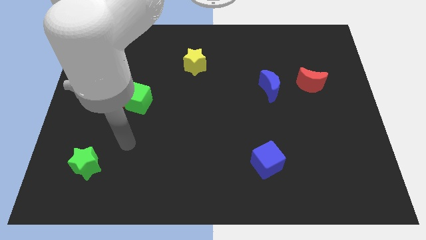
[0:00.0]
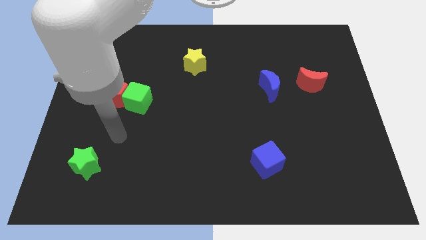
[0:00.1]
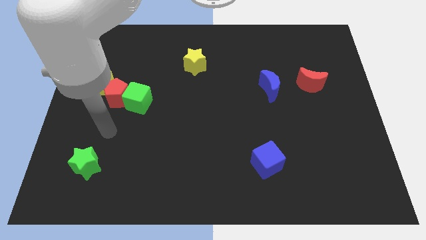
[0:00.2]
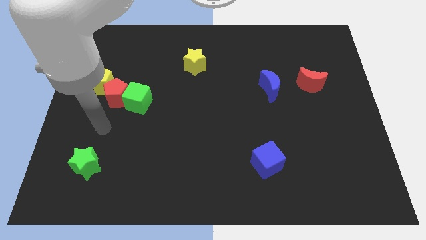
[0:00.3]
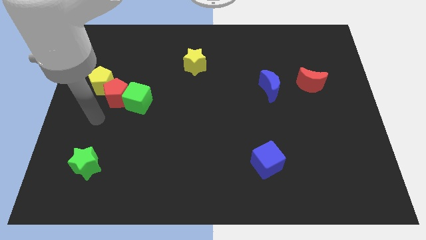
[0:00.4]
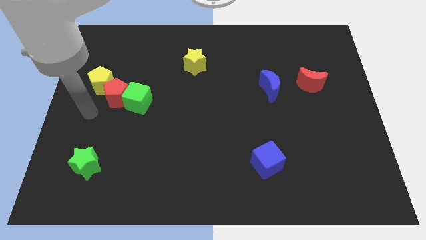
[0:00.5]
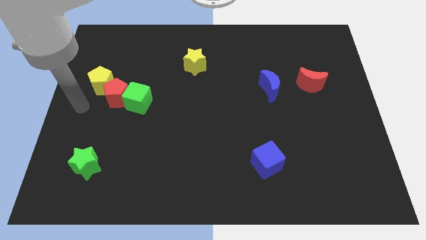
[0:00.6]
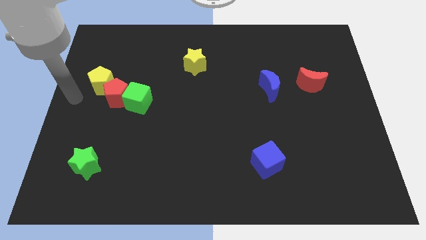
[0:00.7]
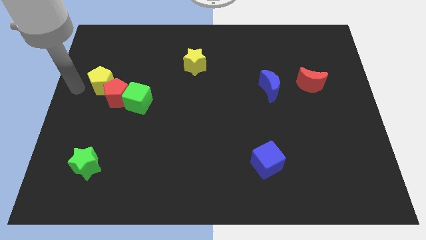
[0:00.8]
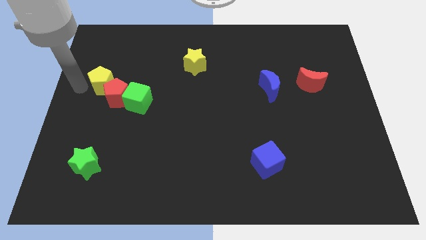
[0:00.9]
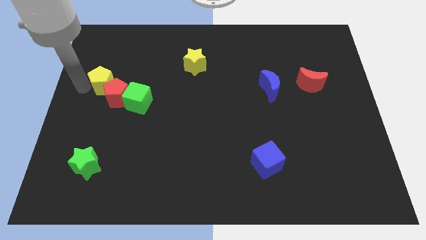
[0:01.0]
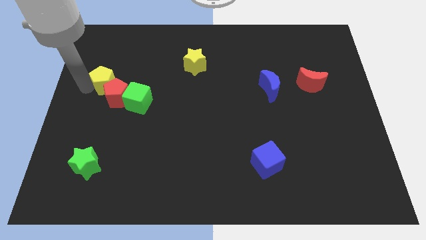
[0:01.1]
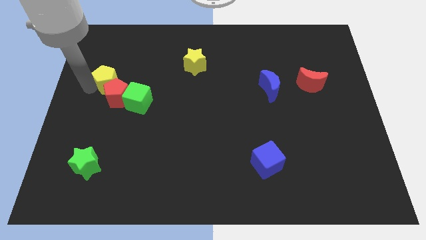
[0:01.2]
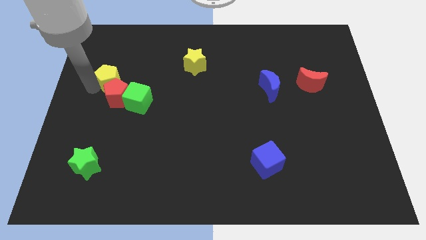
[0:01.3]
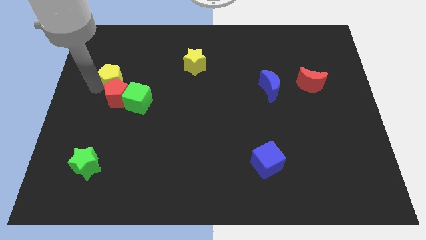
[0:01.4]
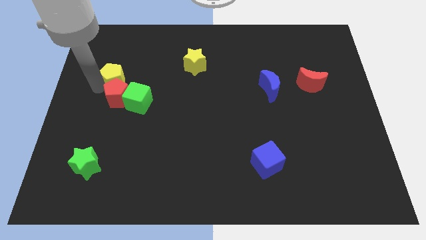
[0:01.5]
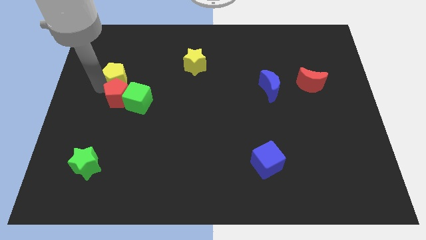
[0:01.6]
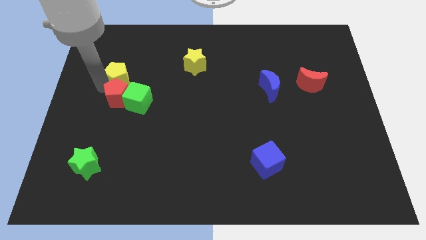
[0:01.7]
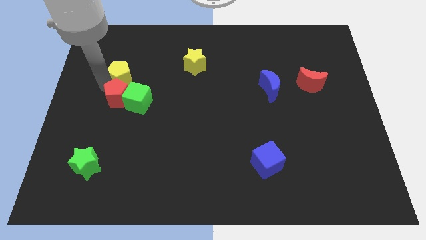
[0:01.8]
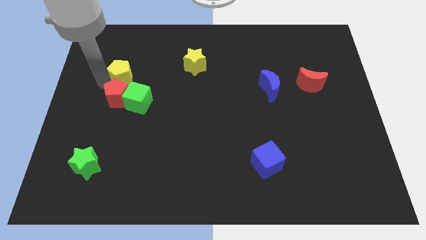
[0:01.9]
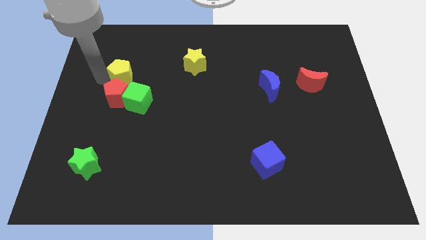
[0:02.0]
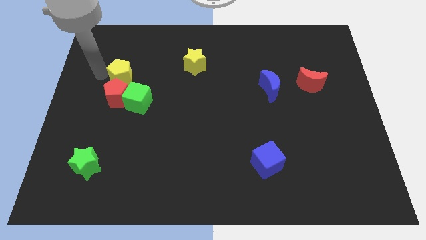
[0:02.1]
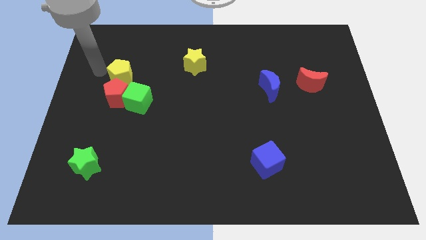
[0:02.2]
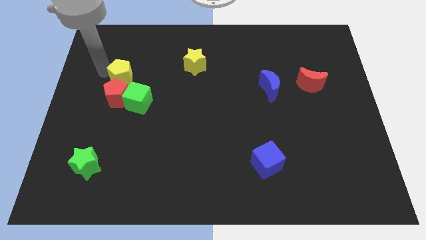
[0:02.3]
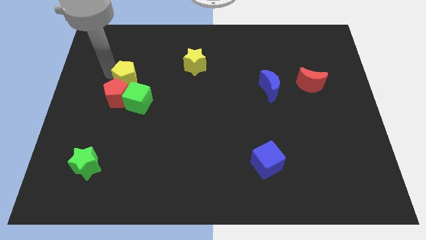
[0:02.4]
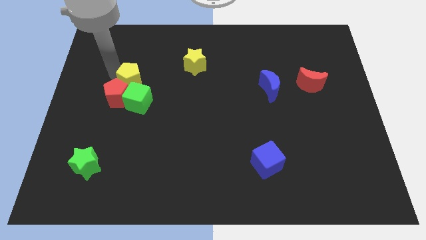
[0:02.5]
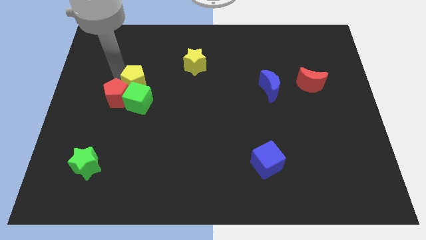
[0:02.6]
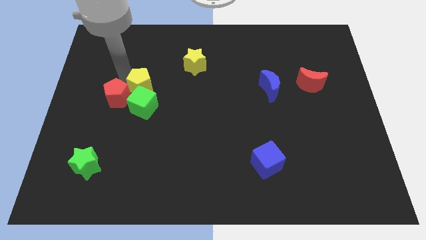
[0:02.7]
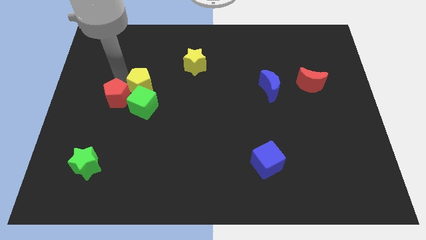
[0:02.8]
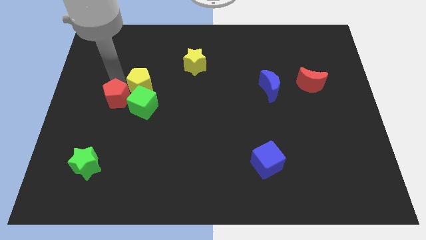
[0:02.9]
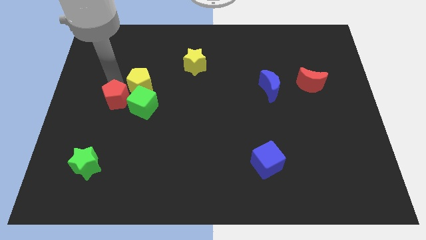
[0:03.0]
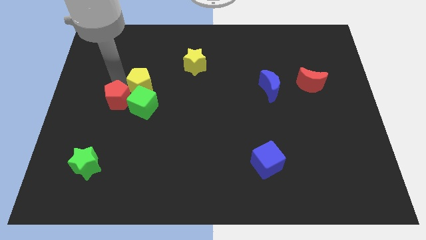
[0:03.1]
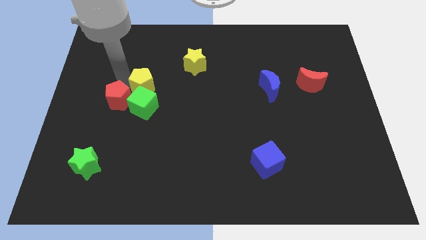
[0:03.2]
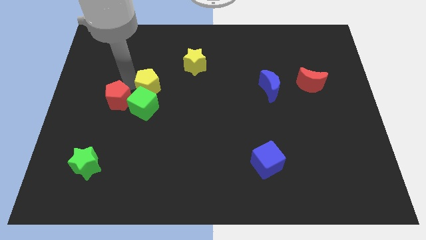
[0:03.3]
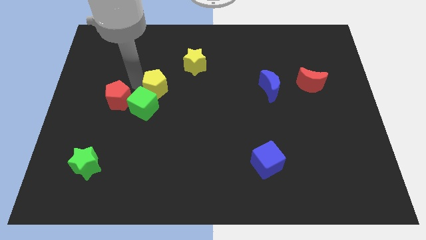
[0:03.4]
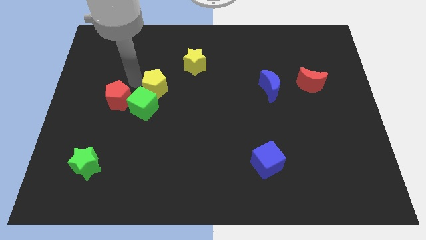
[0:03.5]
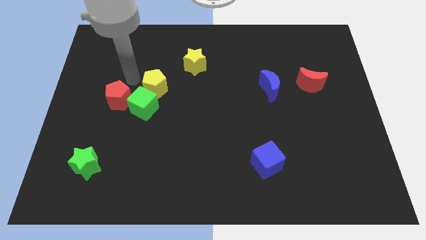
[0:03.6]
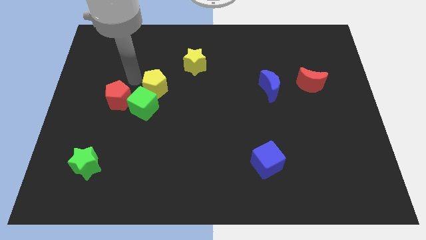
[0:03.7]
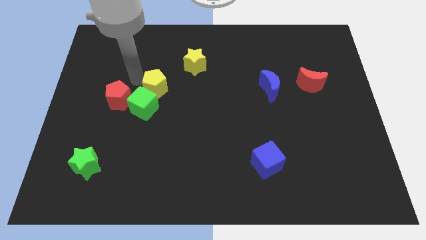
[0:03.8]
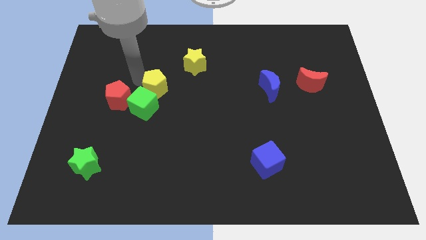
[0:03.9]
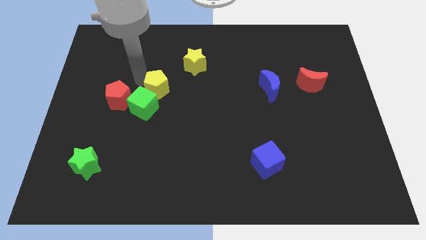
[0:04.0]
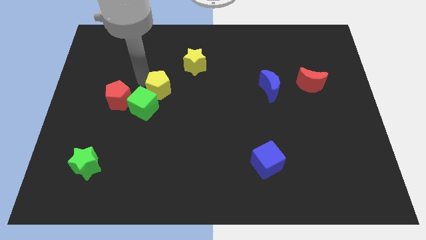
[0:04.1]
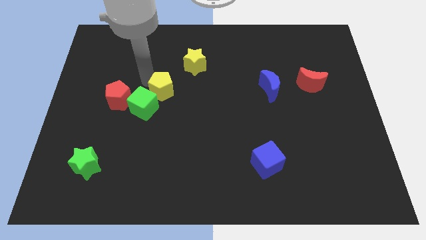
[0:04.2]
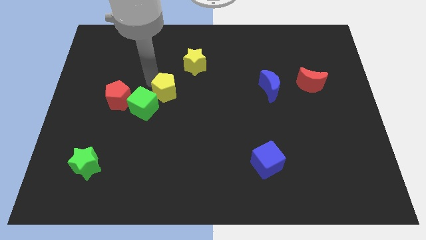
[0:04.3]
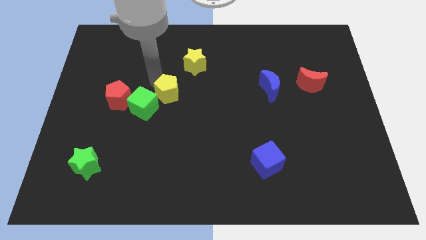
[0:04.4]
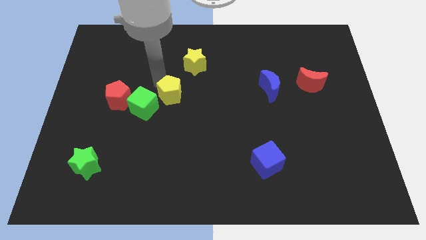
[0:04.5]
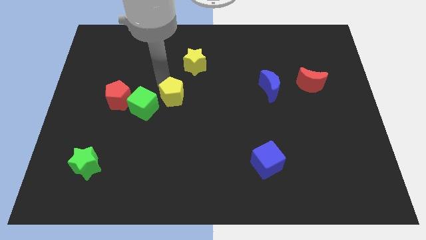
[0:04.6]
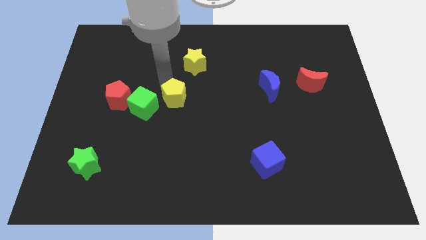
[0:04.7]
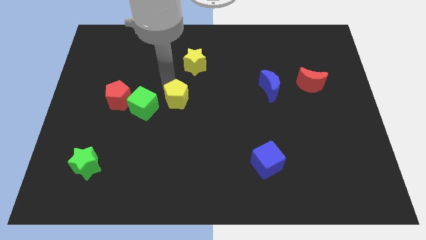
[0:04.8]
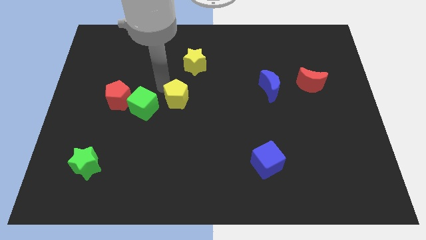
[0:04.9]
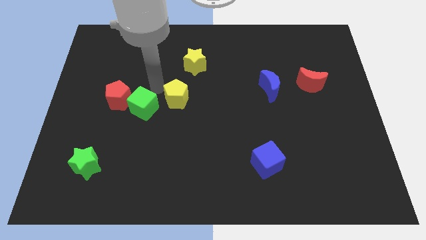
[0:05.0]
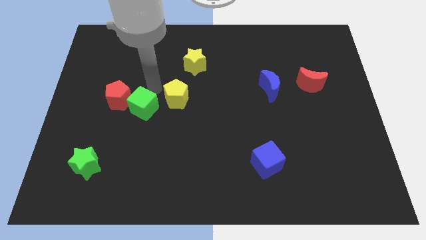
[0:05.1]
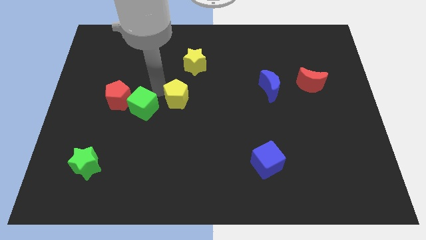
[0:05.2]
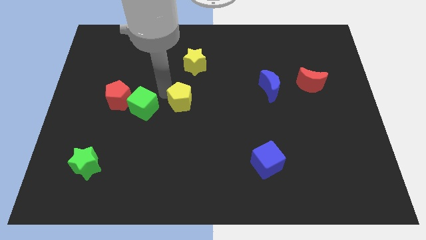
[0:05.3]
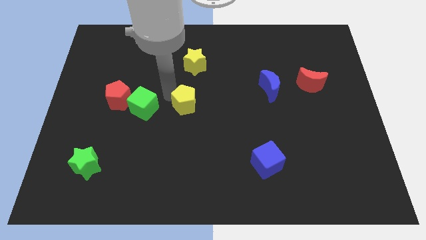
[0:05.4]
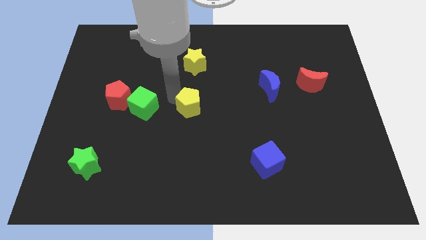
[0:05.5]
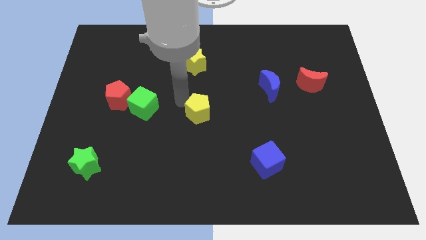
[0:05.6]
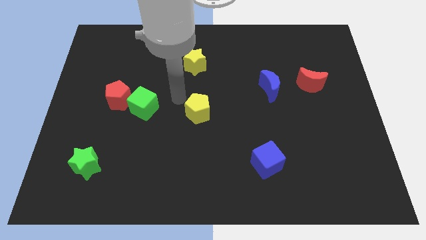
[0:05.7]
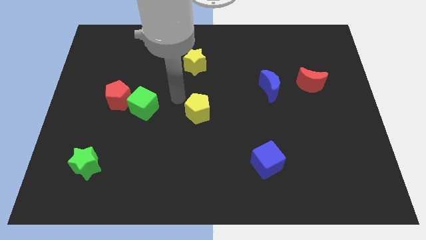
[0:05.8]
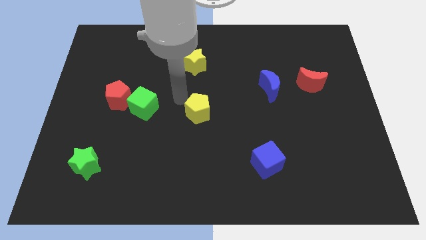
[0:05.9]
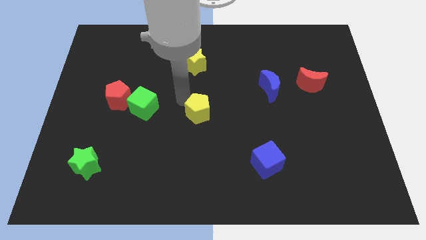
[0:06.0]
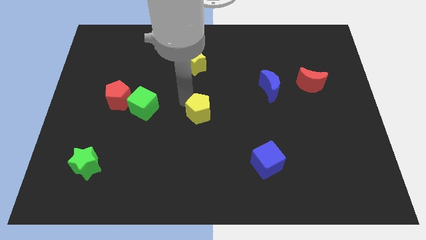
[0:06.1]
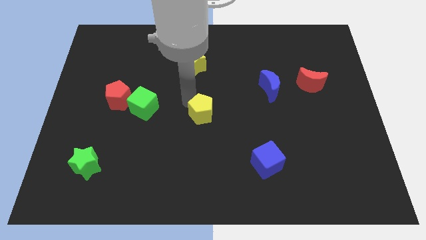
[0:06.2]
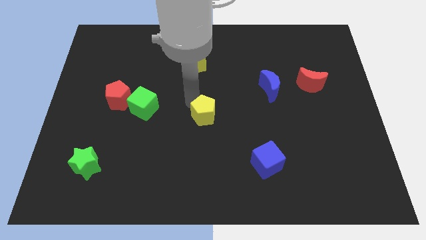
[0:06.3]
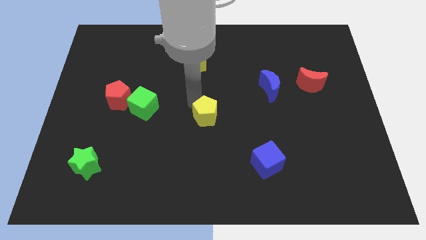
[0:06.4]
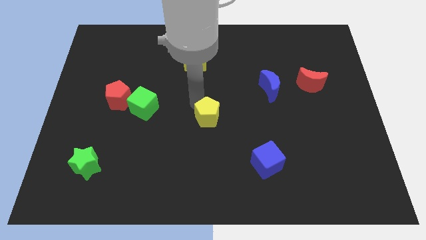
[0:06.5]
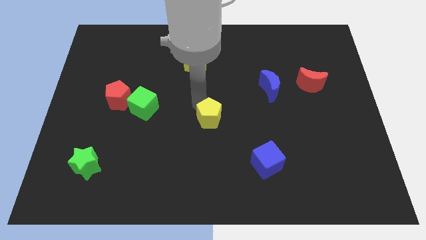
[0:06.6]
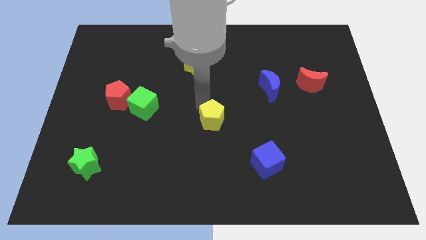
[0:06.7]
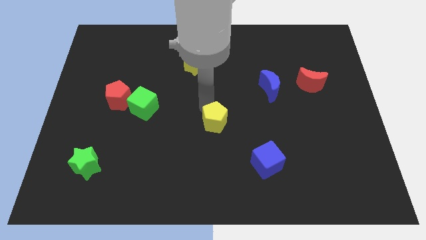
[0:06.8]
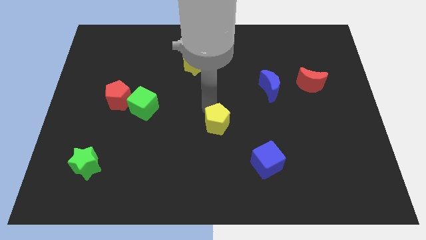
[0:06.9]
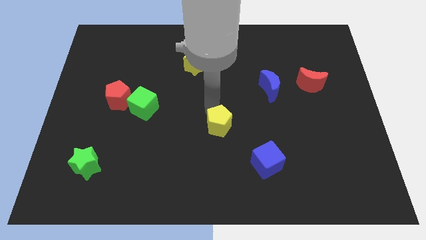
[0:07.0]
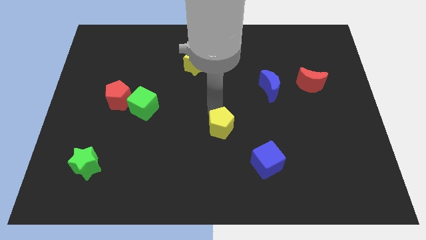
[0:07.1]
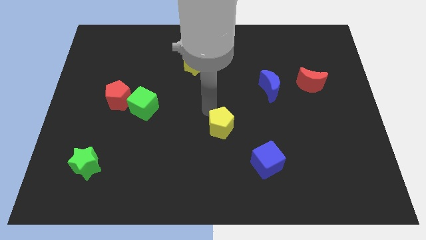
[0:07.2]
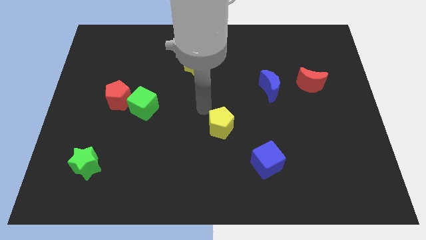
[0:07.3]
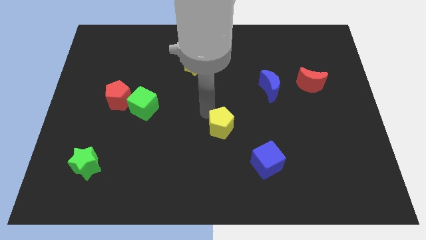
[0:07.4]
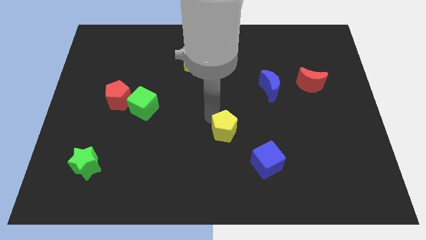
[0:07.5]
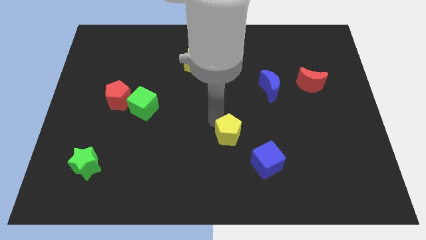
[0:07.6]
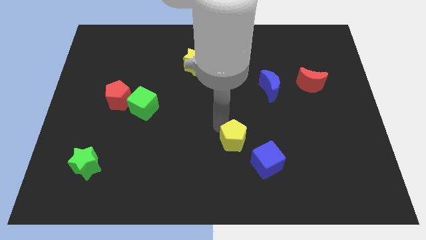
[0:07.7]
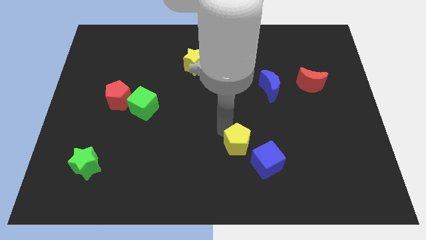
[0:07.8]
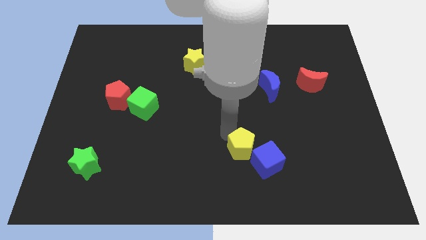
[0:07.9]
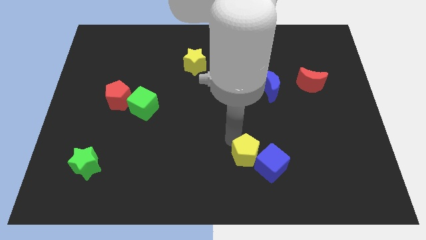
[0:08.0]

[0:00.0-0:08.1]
push the yellow pentagon next to the blue cube
